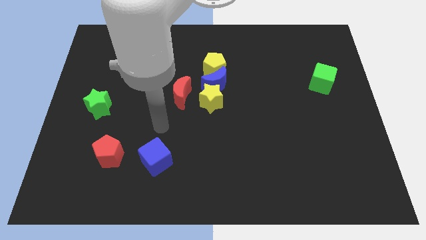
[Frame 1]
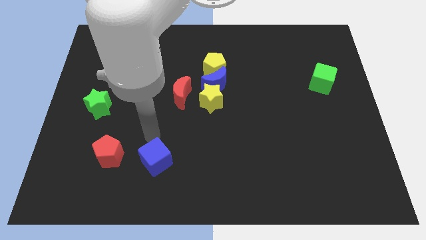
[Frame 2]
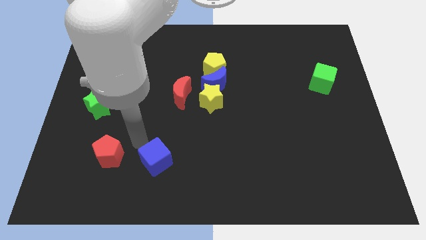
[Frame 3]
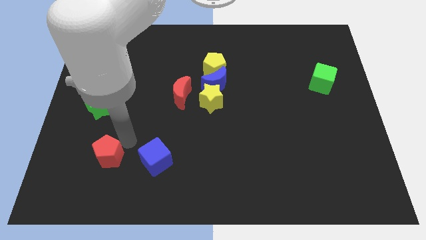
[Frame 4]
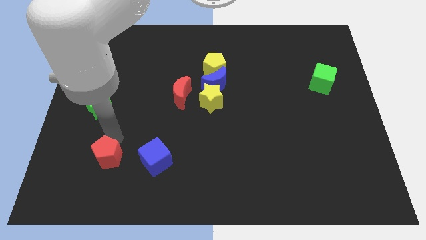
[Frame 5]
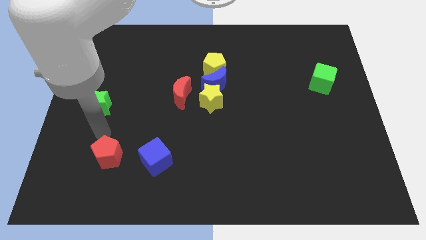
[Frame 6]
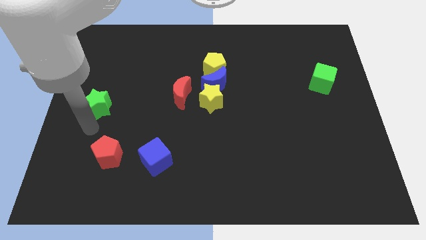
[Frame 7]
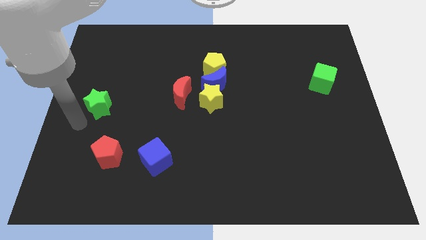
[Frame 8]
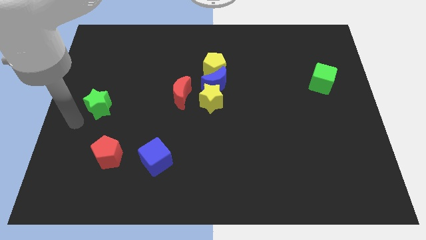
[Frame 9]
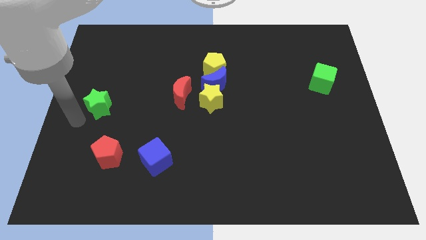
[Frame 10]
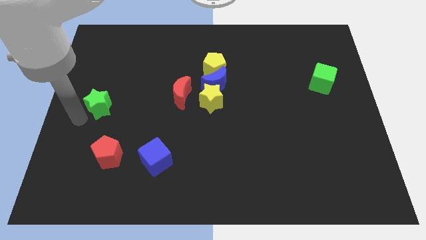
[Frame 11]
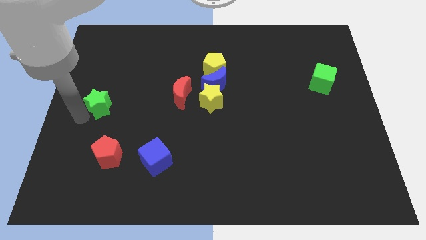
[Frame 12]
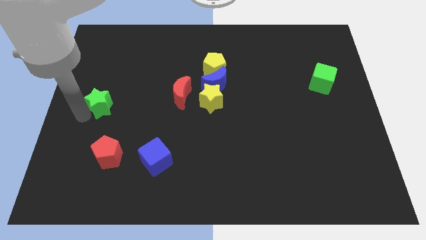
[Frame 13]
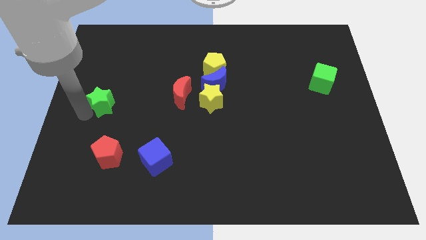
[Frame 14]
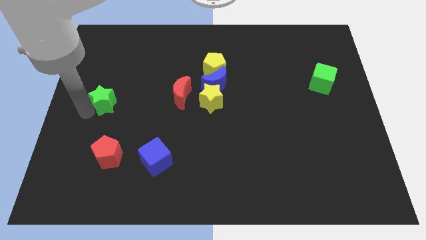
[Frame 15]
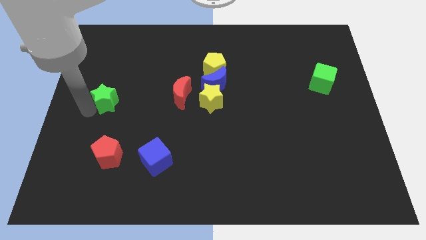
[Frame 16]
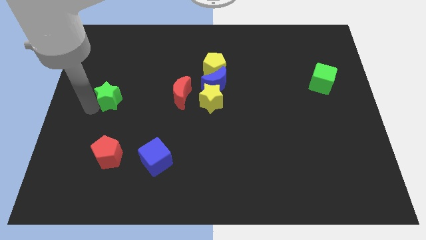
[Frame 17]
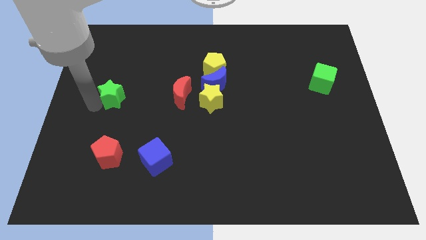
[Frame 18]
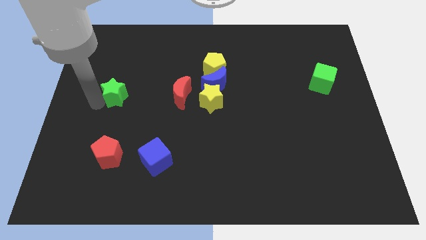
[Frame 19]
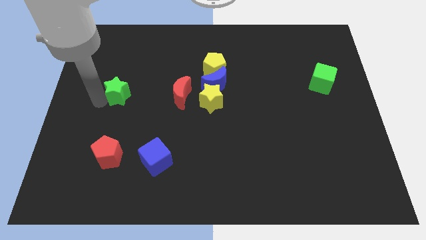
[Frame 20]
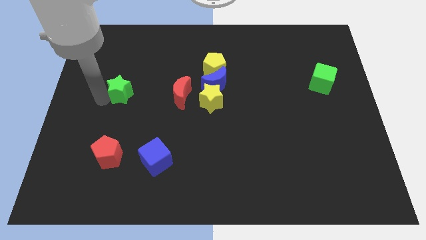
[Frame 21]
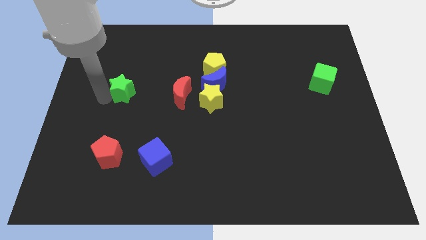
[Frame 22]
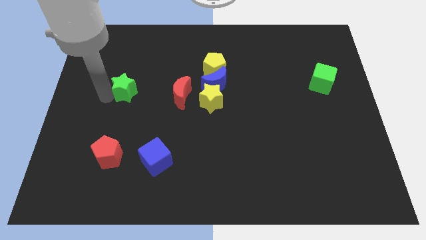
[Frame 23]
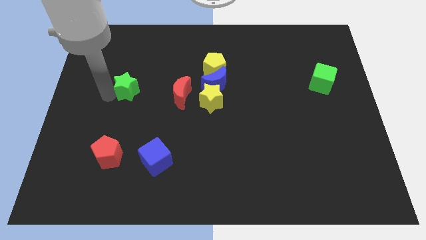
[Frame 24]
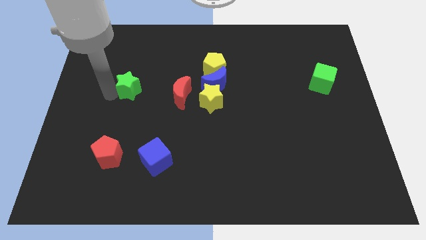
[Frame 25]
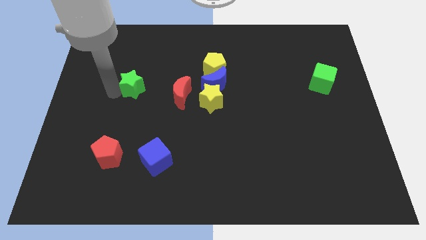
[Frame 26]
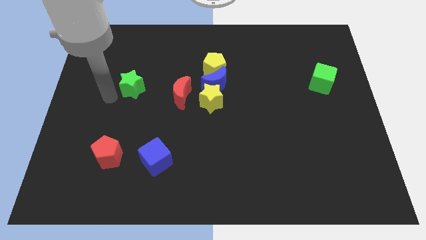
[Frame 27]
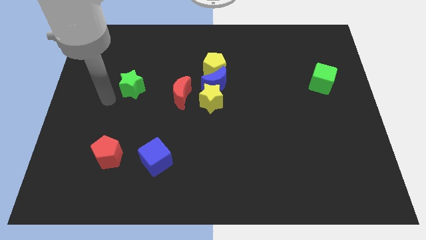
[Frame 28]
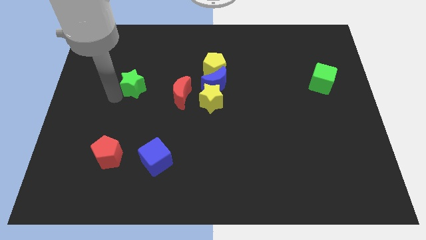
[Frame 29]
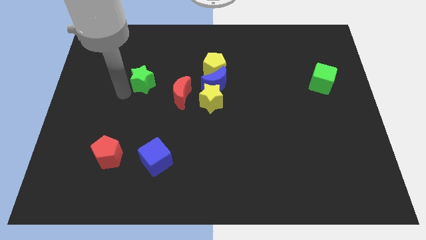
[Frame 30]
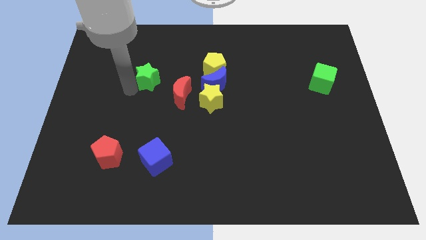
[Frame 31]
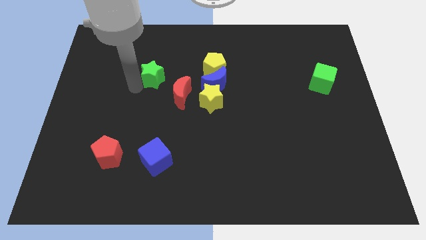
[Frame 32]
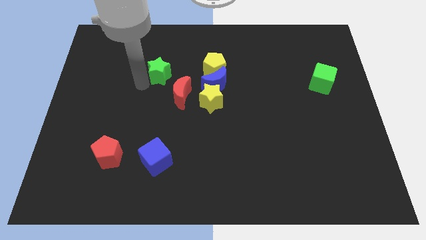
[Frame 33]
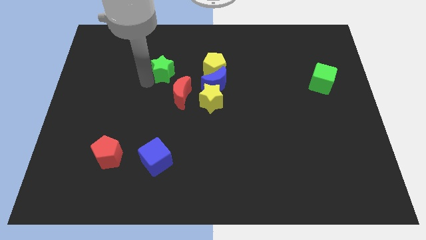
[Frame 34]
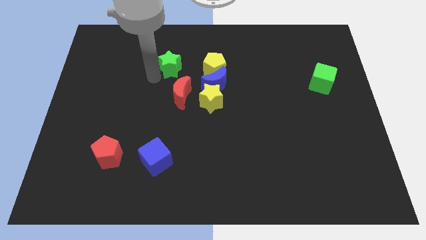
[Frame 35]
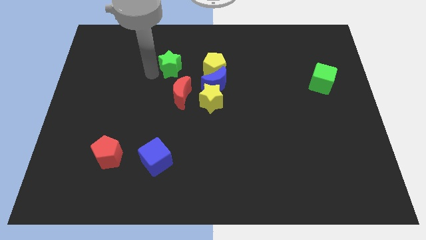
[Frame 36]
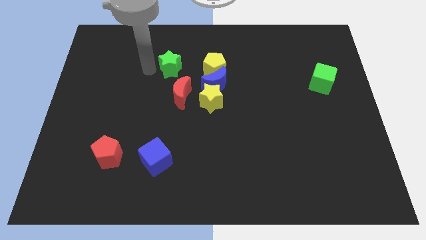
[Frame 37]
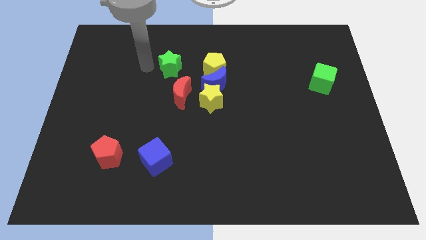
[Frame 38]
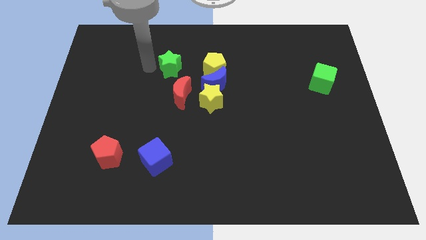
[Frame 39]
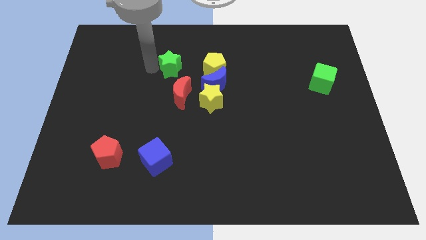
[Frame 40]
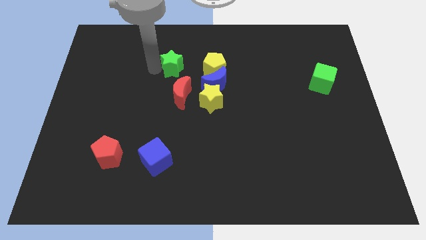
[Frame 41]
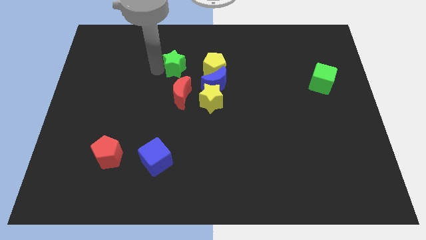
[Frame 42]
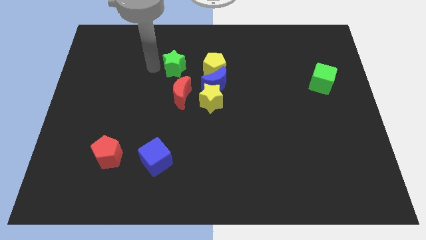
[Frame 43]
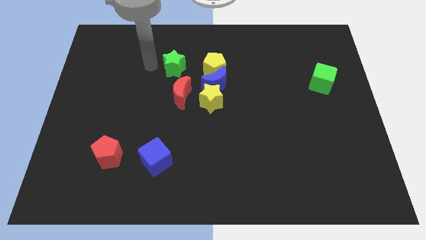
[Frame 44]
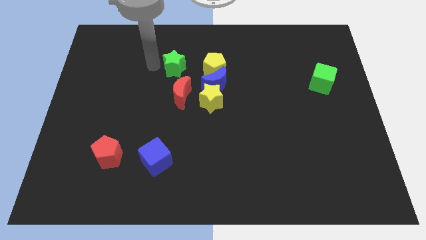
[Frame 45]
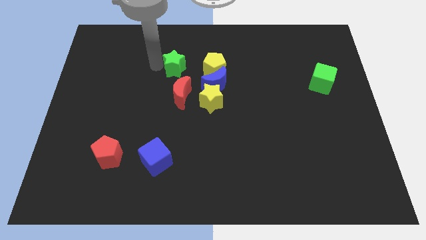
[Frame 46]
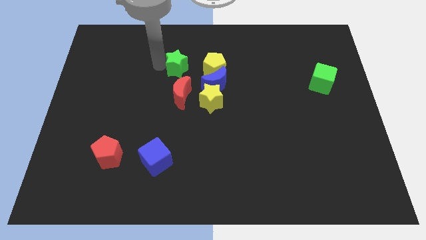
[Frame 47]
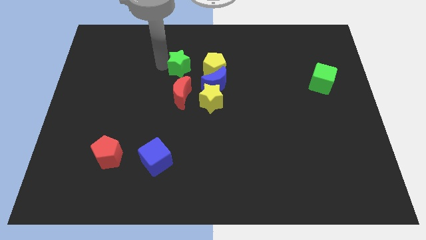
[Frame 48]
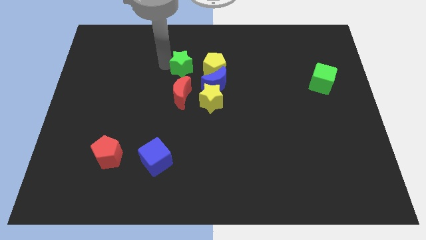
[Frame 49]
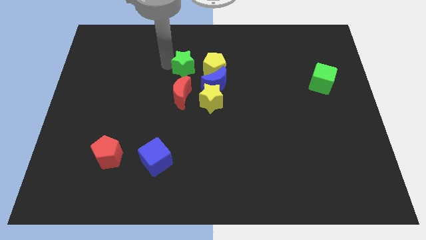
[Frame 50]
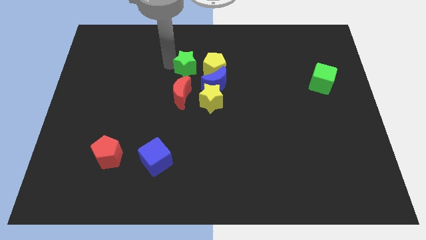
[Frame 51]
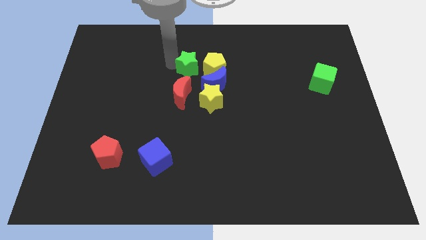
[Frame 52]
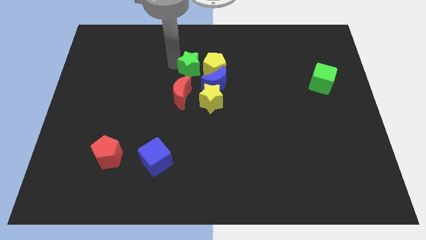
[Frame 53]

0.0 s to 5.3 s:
push the green star to the yellow pentagon

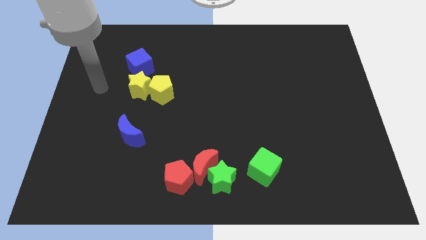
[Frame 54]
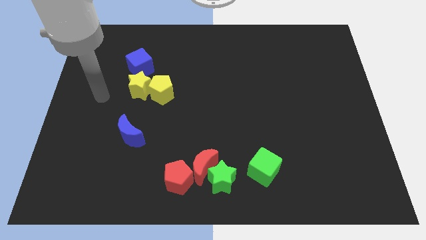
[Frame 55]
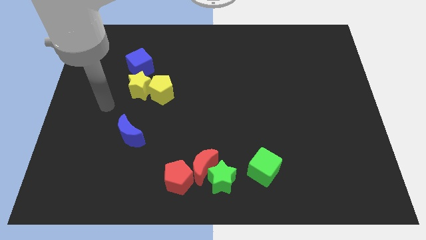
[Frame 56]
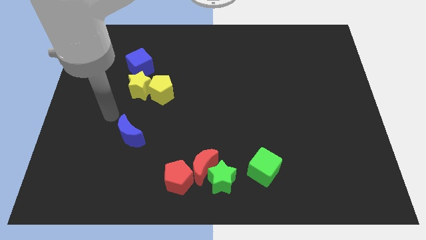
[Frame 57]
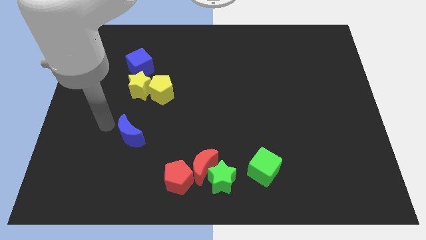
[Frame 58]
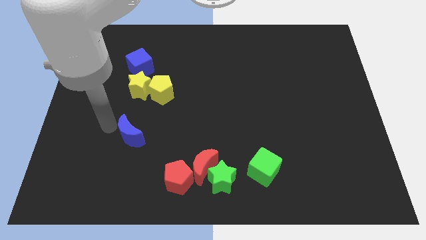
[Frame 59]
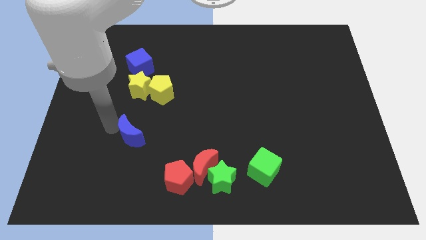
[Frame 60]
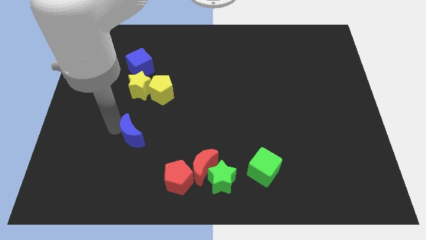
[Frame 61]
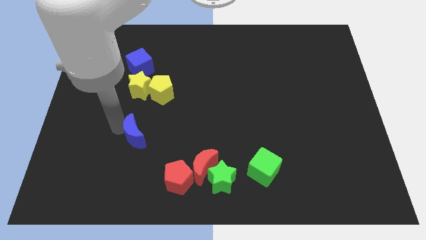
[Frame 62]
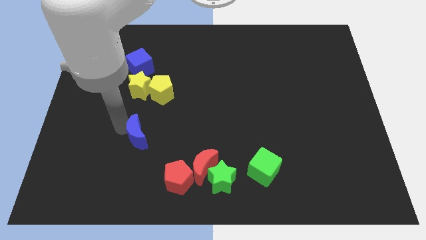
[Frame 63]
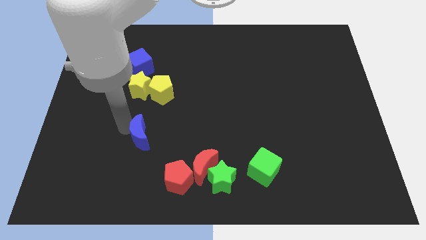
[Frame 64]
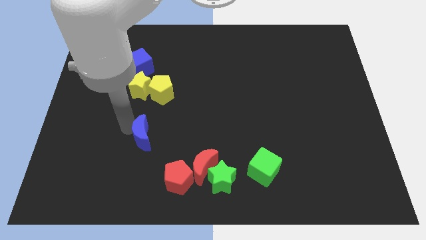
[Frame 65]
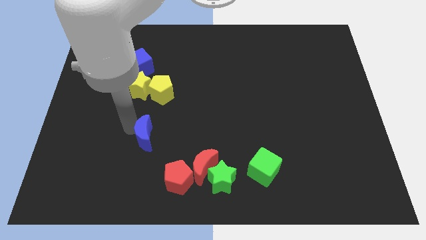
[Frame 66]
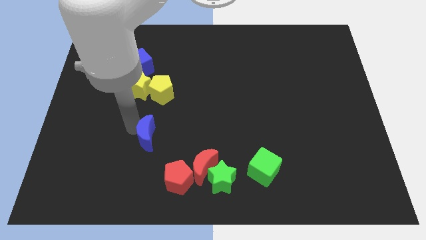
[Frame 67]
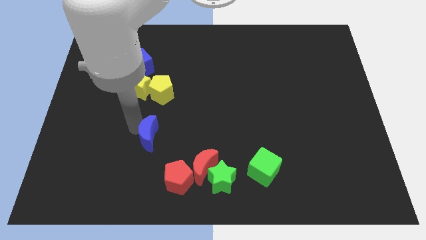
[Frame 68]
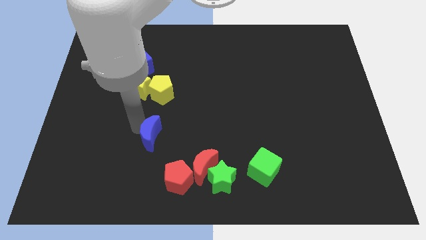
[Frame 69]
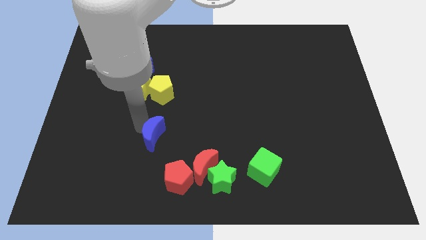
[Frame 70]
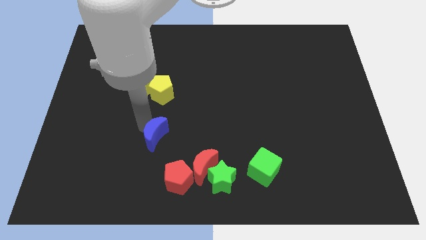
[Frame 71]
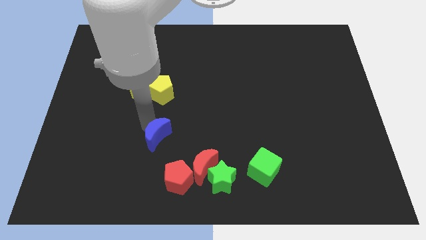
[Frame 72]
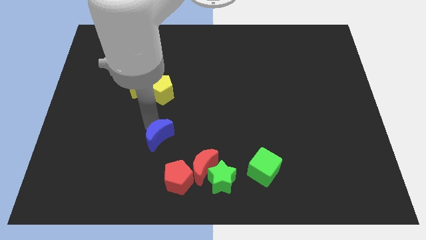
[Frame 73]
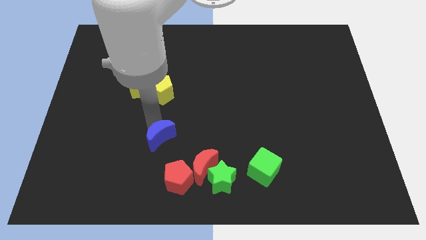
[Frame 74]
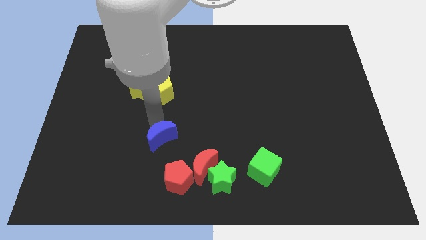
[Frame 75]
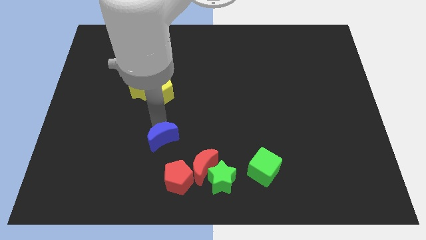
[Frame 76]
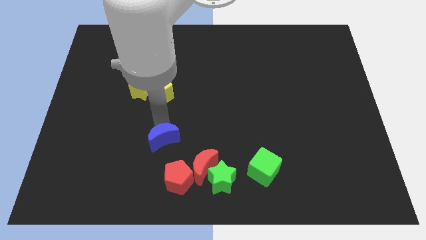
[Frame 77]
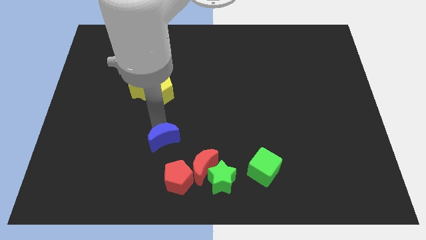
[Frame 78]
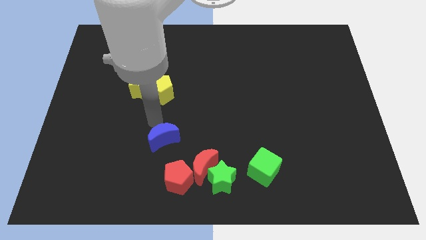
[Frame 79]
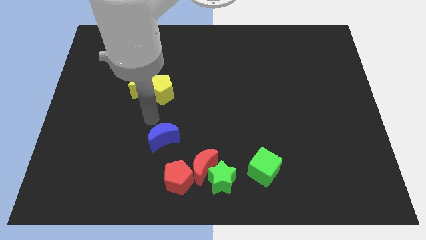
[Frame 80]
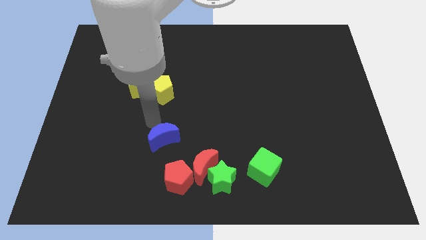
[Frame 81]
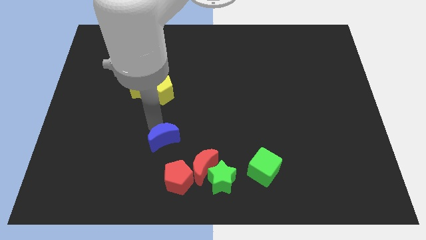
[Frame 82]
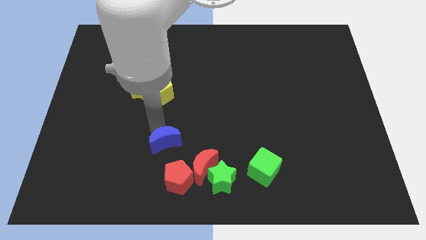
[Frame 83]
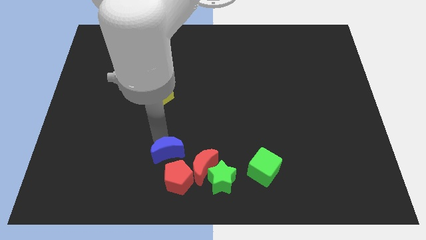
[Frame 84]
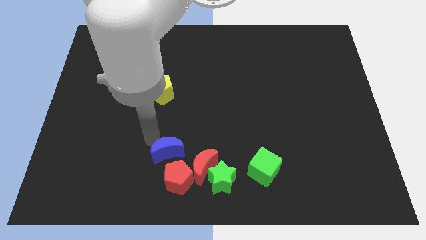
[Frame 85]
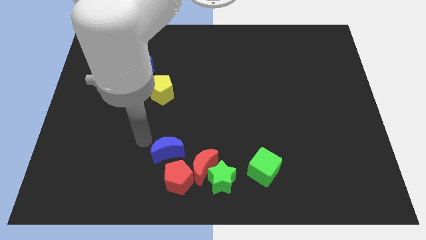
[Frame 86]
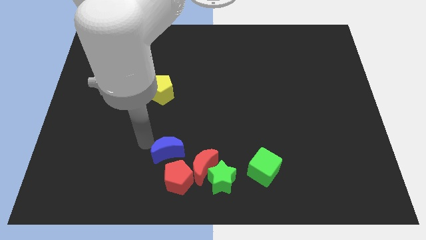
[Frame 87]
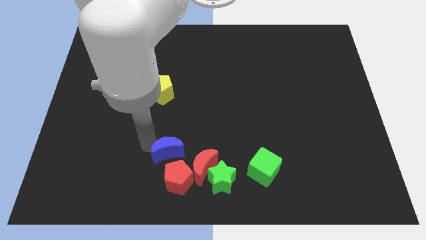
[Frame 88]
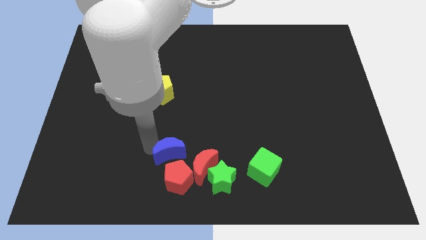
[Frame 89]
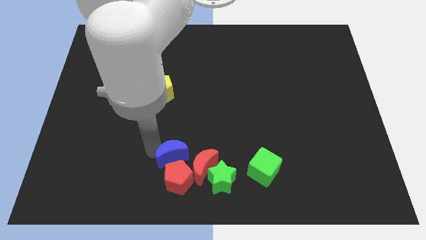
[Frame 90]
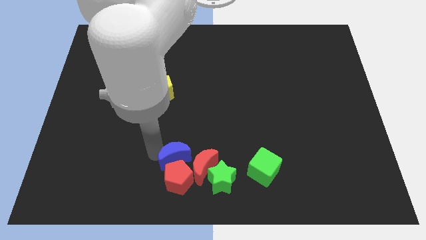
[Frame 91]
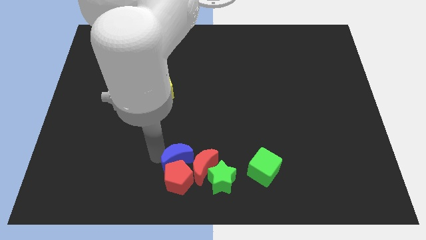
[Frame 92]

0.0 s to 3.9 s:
move the blue moon to the red moon
